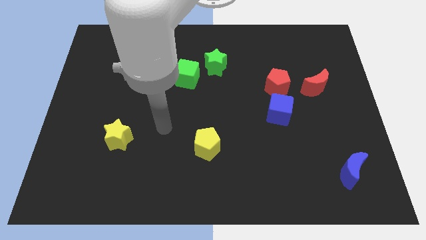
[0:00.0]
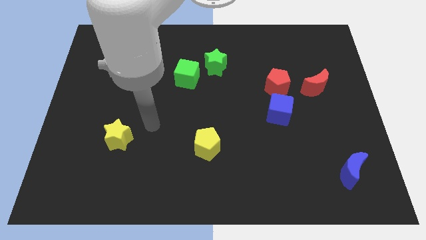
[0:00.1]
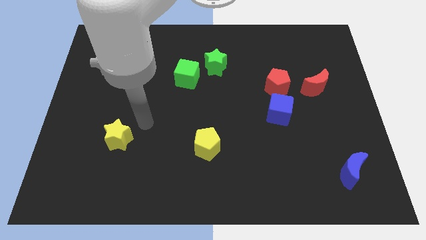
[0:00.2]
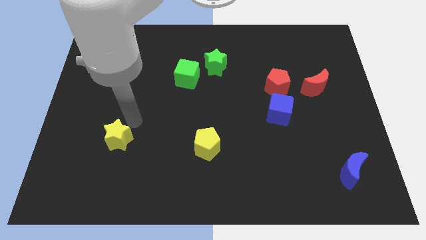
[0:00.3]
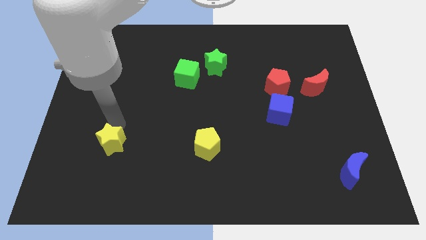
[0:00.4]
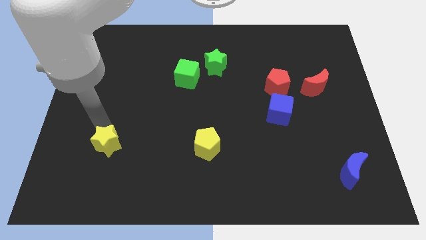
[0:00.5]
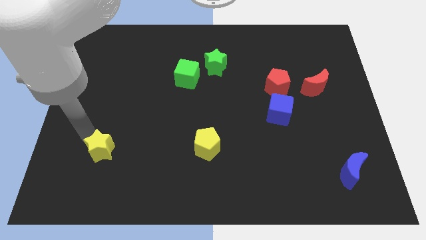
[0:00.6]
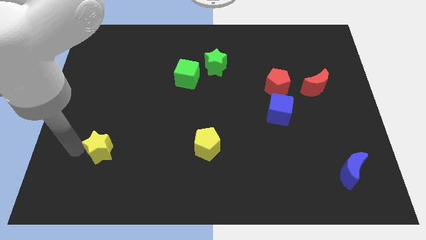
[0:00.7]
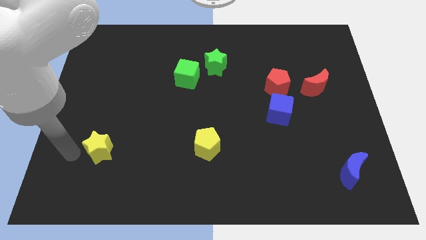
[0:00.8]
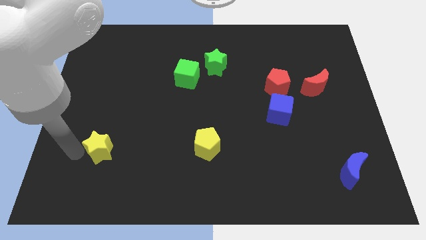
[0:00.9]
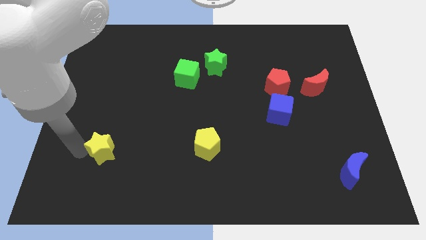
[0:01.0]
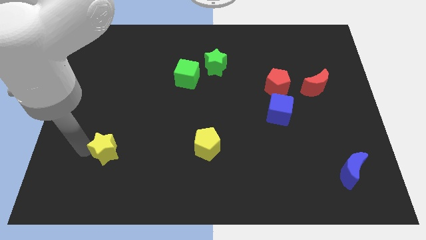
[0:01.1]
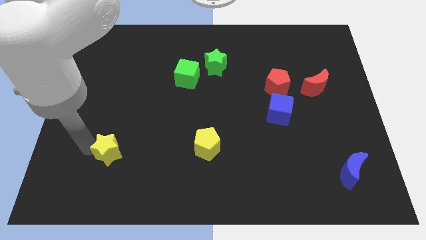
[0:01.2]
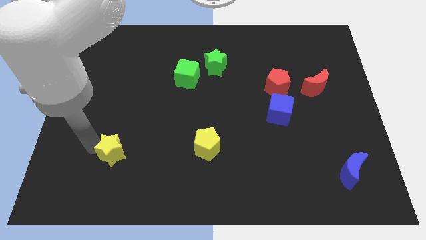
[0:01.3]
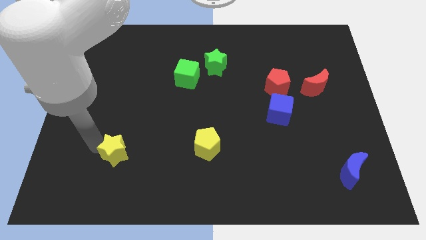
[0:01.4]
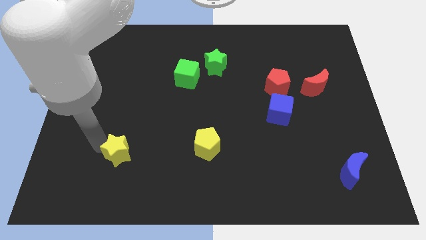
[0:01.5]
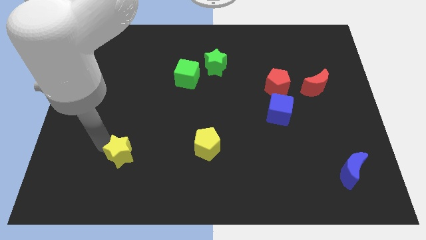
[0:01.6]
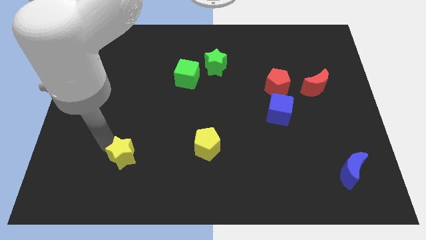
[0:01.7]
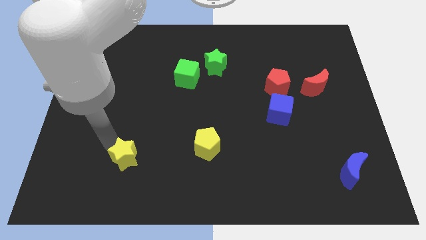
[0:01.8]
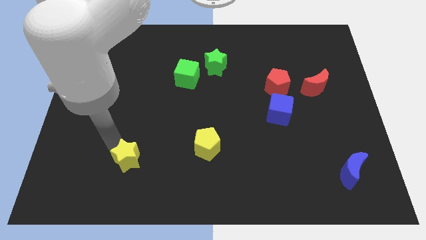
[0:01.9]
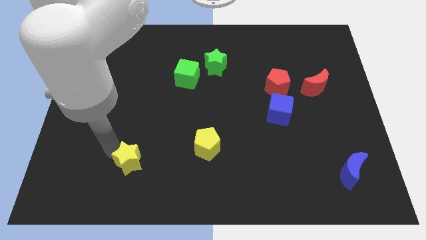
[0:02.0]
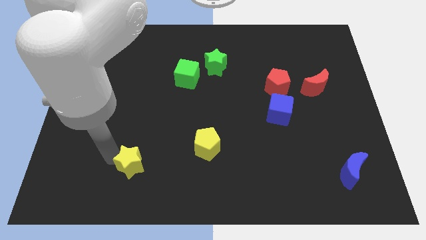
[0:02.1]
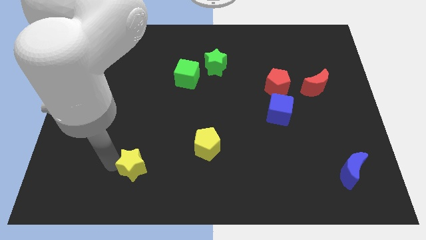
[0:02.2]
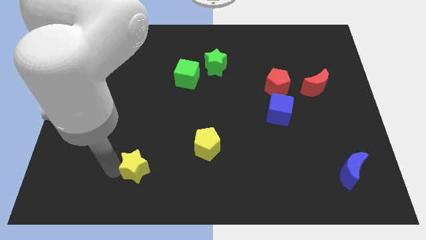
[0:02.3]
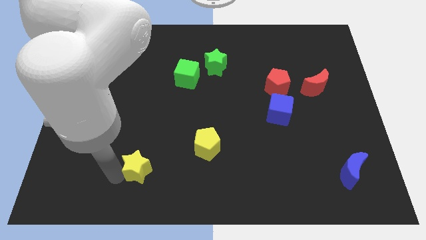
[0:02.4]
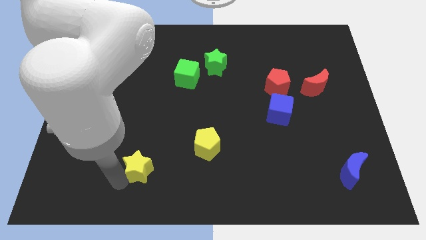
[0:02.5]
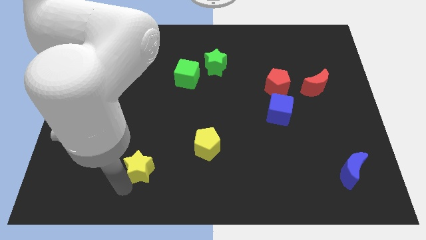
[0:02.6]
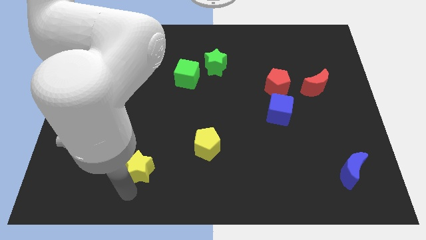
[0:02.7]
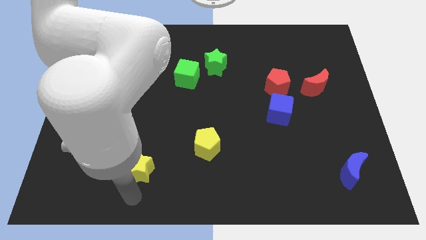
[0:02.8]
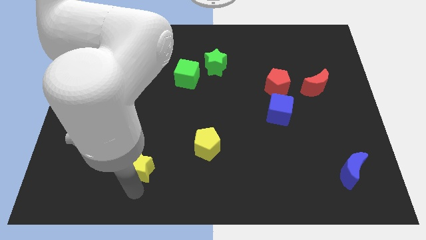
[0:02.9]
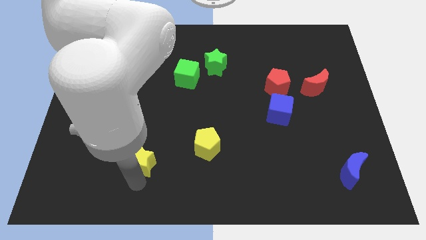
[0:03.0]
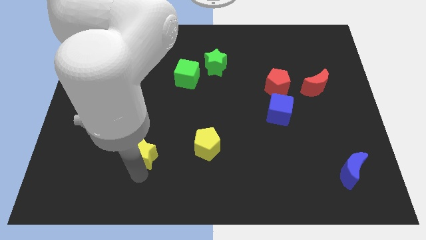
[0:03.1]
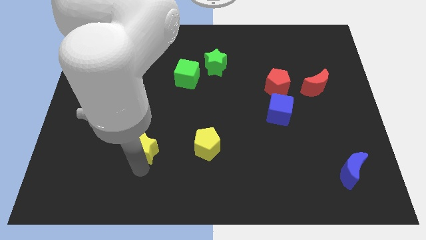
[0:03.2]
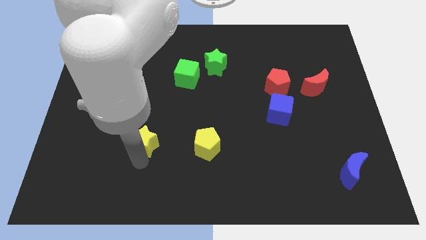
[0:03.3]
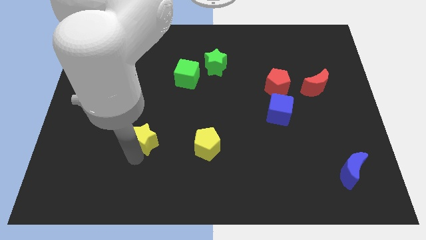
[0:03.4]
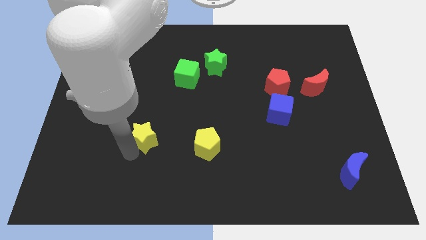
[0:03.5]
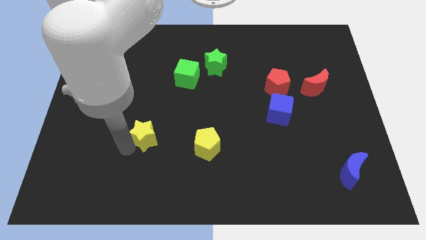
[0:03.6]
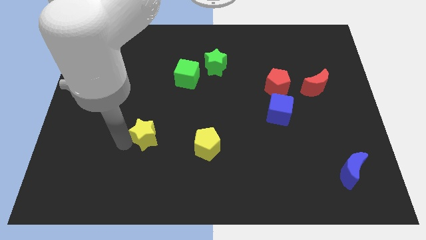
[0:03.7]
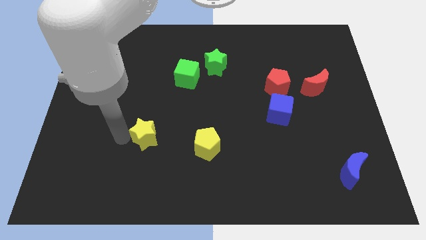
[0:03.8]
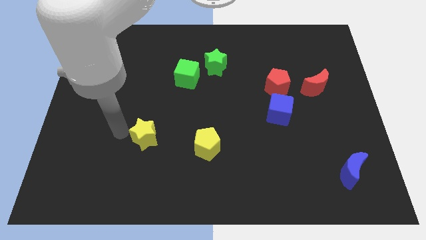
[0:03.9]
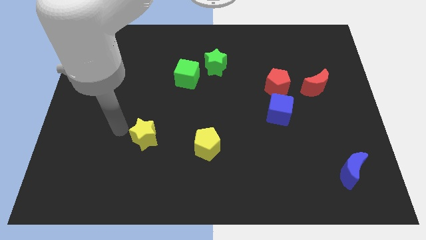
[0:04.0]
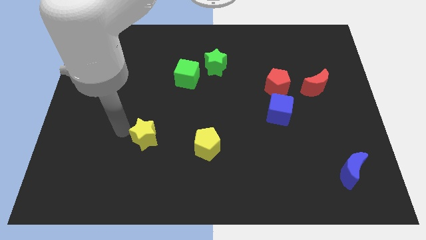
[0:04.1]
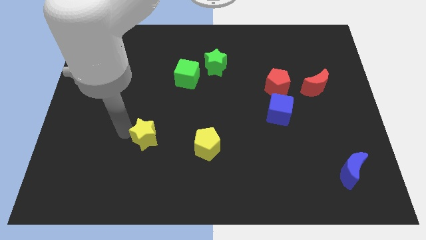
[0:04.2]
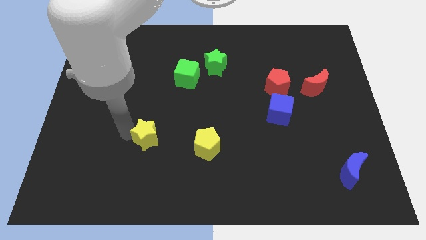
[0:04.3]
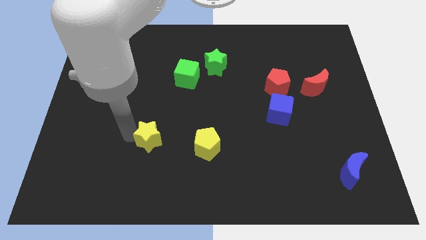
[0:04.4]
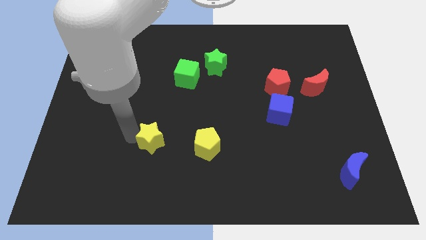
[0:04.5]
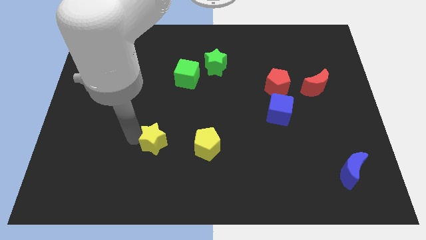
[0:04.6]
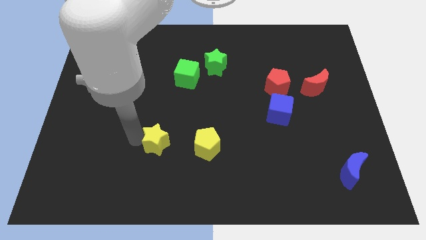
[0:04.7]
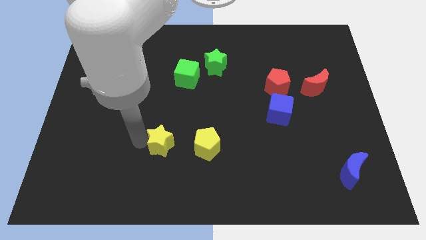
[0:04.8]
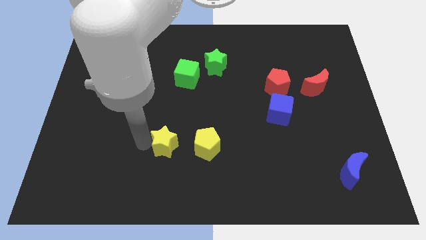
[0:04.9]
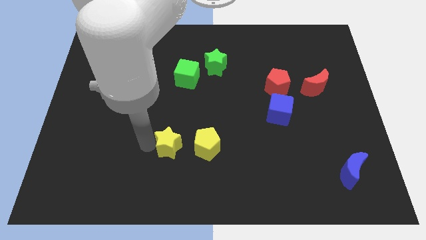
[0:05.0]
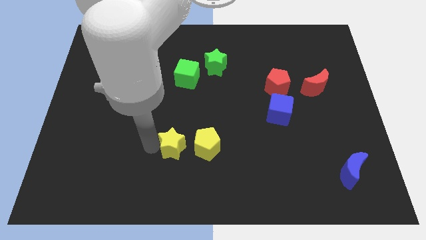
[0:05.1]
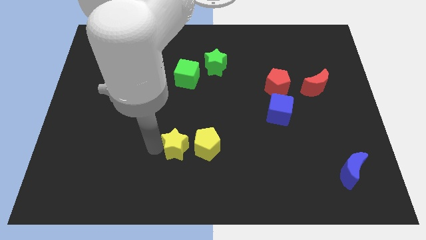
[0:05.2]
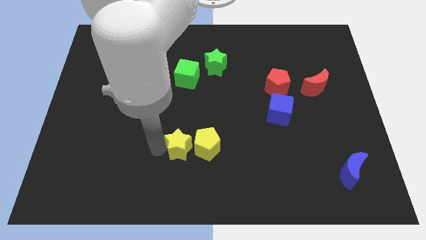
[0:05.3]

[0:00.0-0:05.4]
put the yellow star close to the yellow pentagon

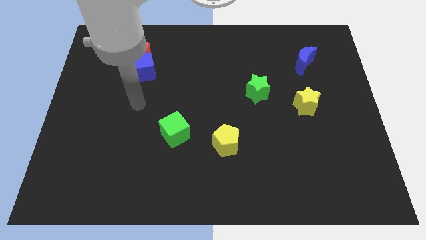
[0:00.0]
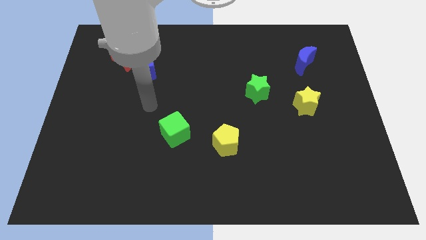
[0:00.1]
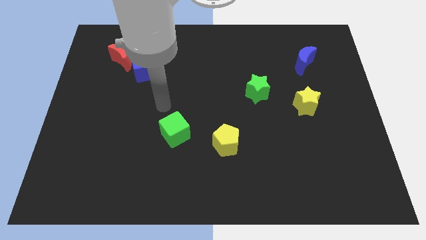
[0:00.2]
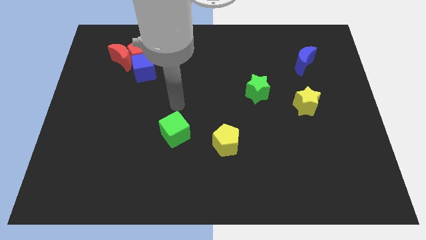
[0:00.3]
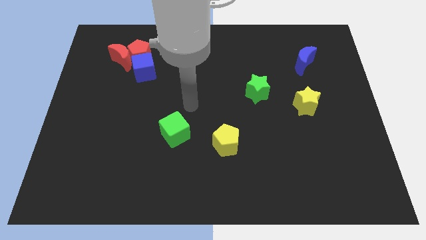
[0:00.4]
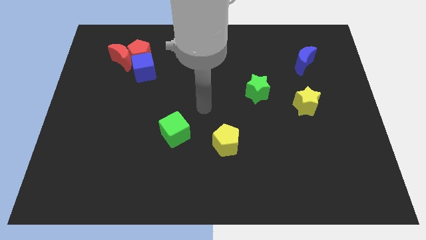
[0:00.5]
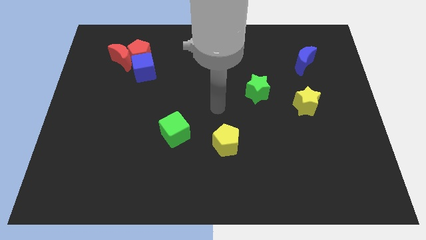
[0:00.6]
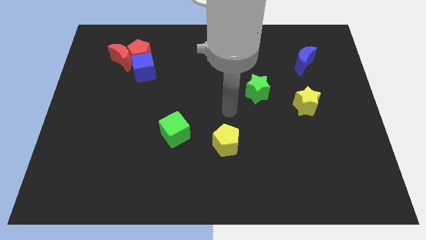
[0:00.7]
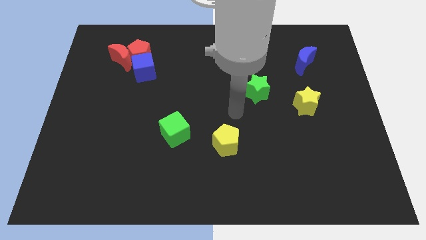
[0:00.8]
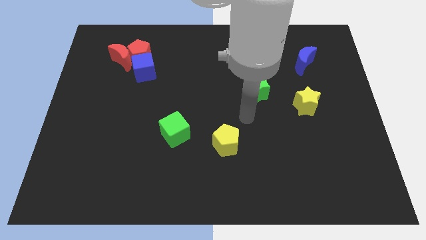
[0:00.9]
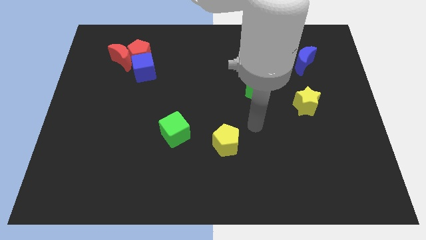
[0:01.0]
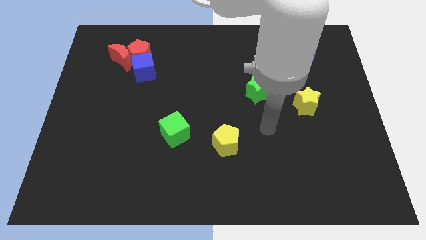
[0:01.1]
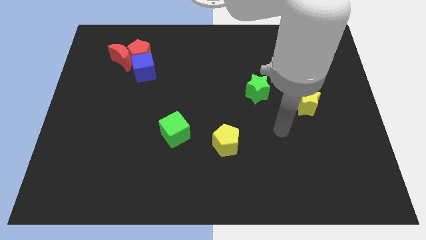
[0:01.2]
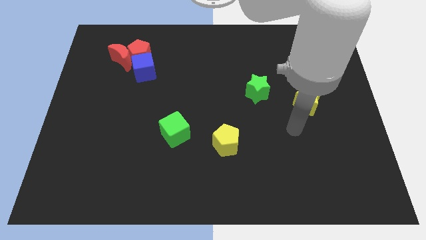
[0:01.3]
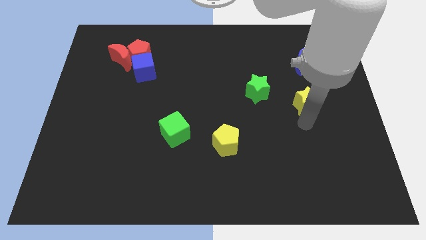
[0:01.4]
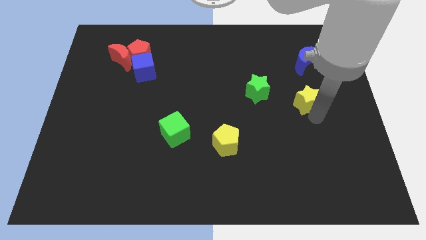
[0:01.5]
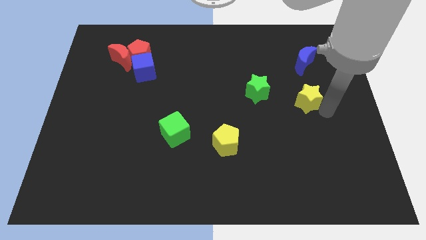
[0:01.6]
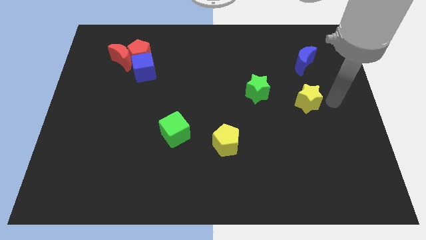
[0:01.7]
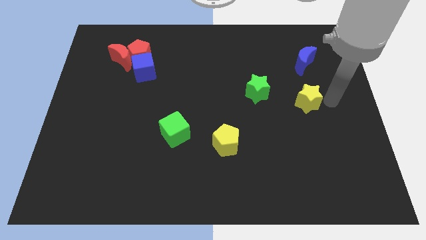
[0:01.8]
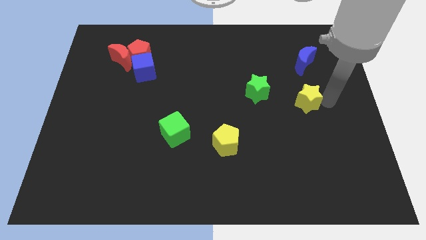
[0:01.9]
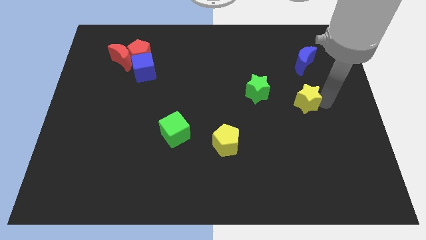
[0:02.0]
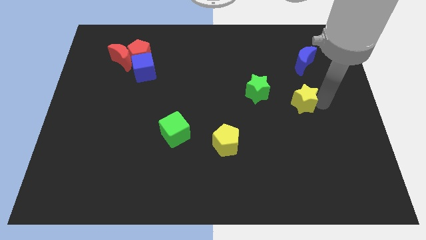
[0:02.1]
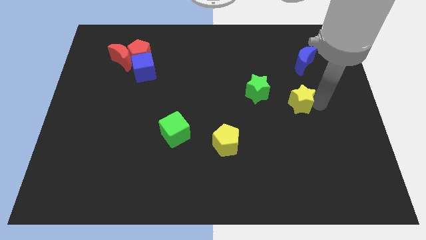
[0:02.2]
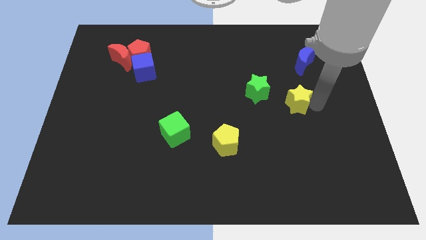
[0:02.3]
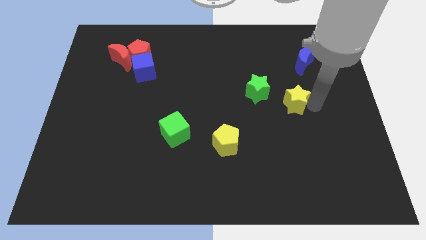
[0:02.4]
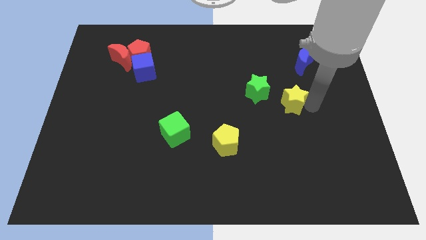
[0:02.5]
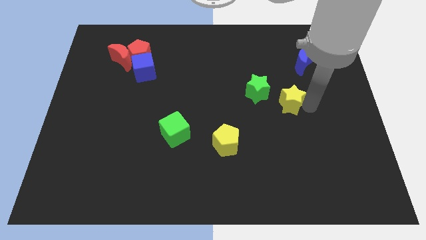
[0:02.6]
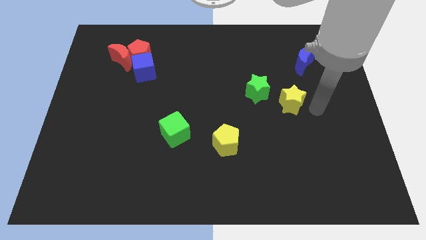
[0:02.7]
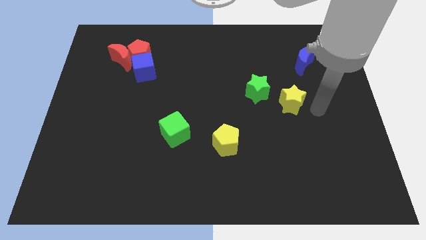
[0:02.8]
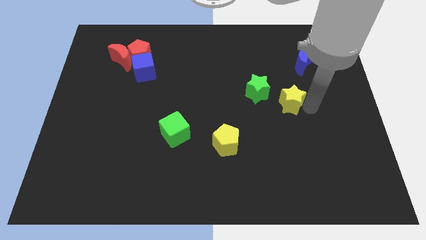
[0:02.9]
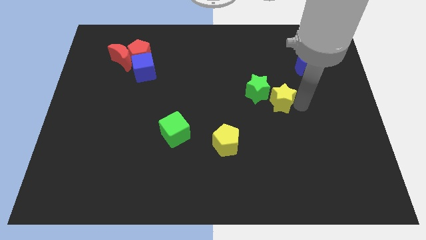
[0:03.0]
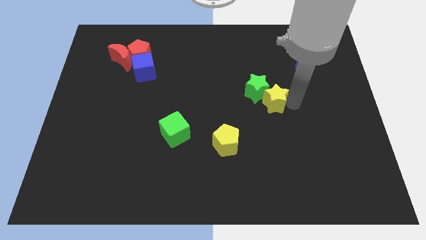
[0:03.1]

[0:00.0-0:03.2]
move the yellow star towards the green star
